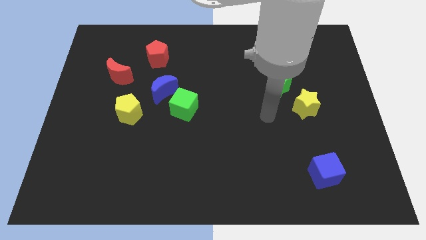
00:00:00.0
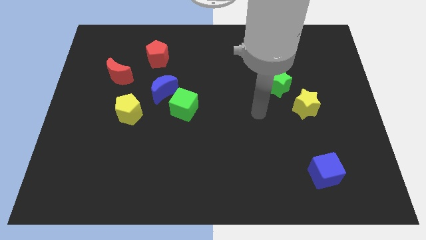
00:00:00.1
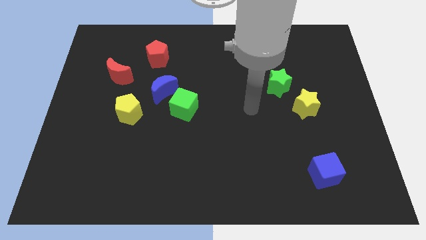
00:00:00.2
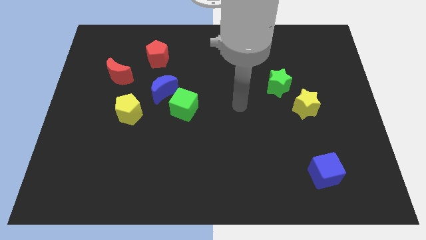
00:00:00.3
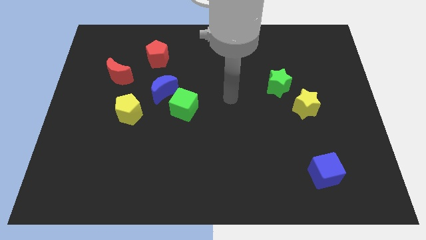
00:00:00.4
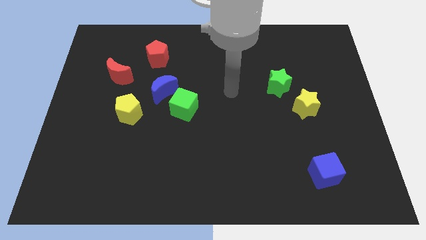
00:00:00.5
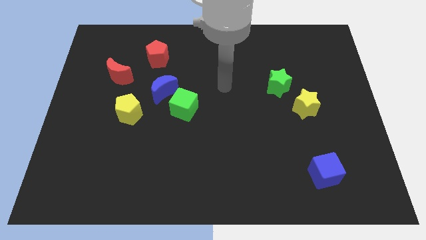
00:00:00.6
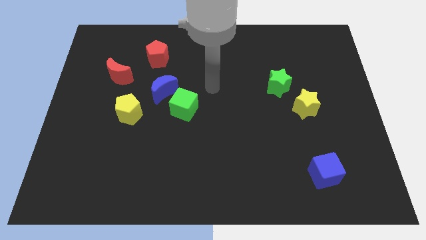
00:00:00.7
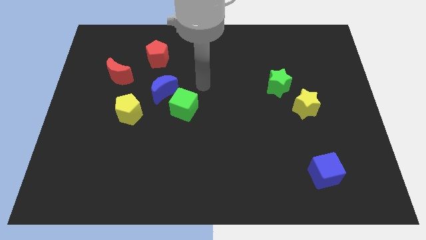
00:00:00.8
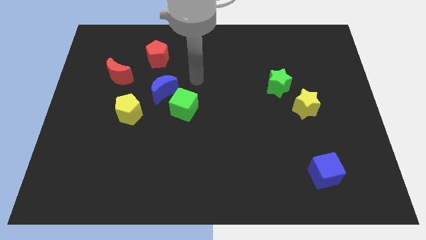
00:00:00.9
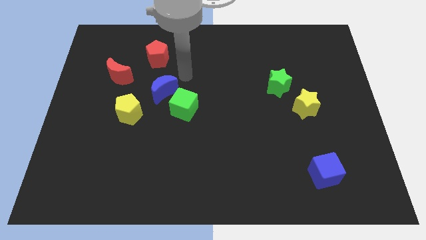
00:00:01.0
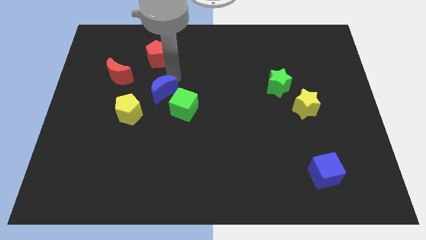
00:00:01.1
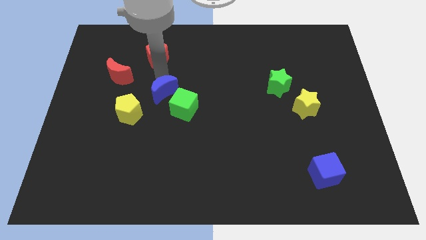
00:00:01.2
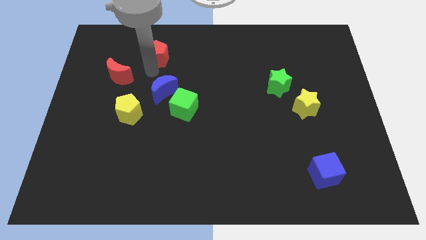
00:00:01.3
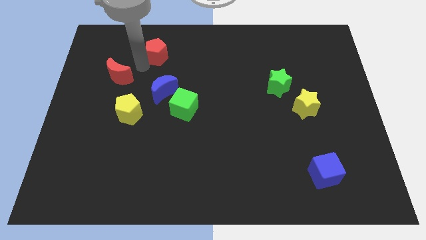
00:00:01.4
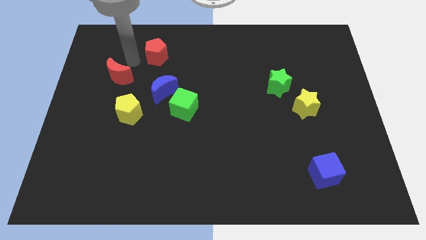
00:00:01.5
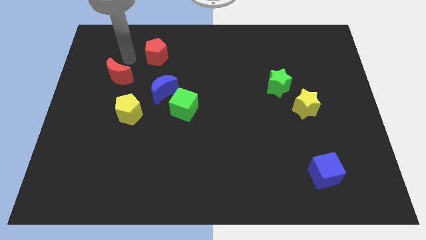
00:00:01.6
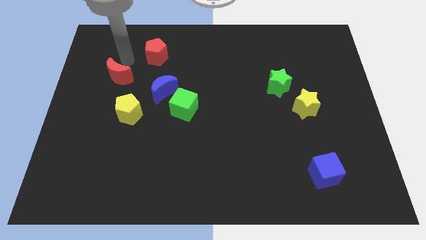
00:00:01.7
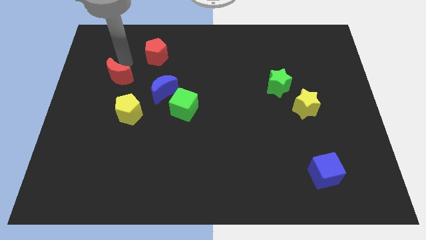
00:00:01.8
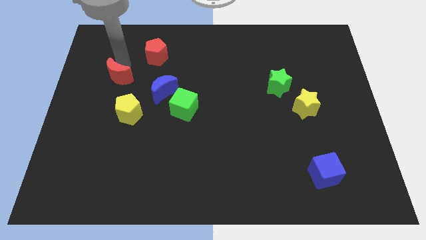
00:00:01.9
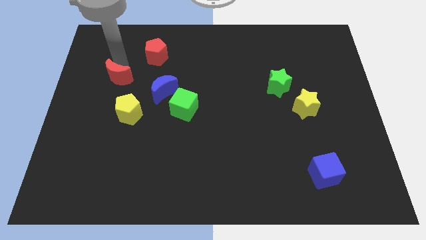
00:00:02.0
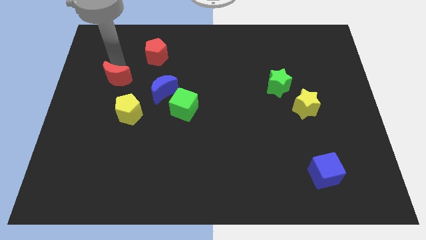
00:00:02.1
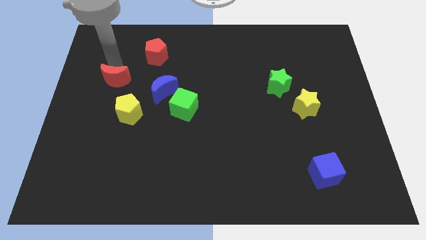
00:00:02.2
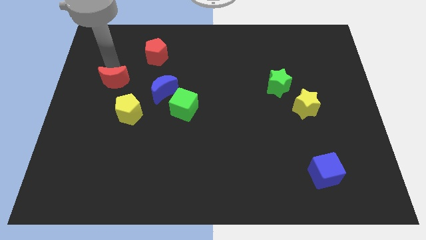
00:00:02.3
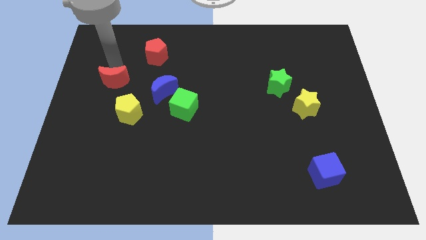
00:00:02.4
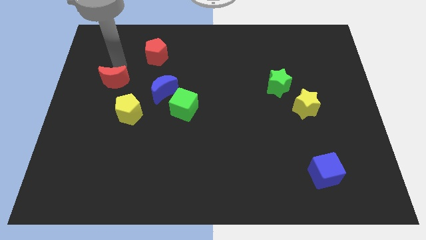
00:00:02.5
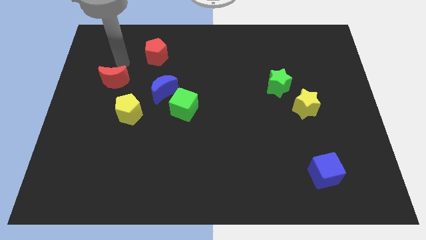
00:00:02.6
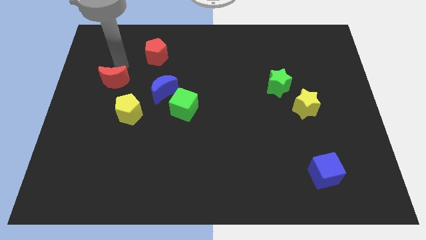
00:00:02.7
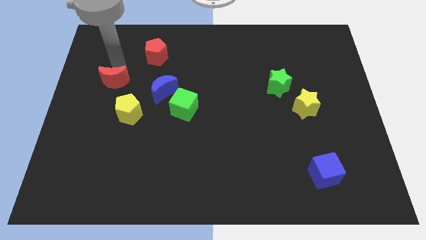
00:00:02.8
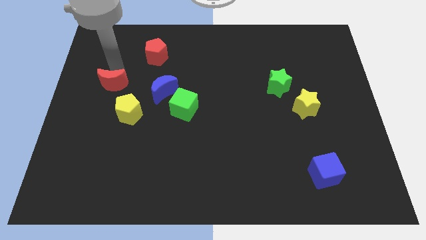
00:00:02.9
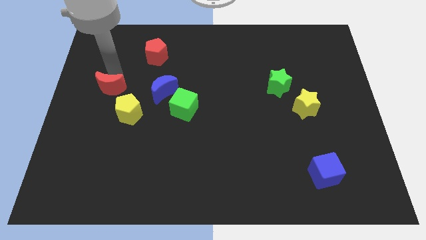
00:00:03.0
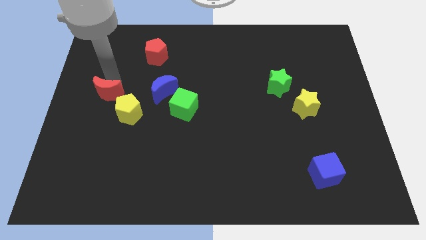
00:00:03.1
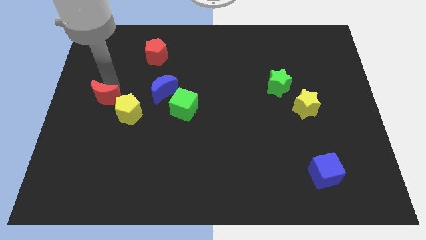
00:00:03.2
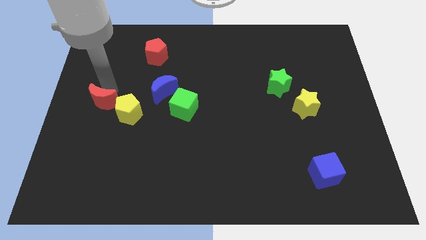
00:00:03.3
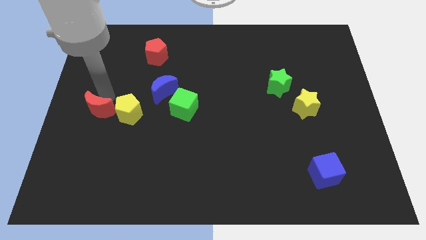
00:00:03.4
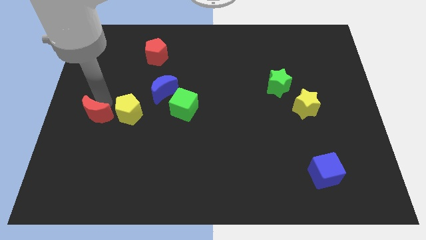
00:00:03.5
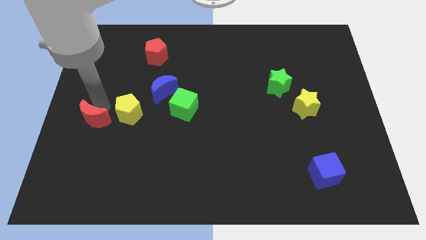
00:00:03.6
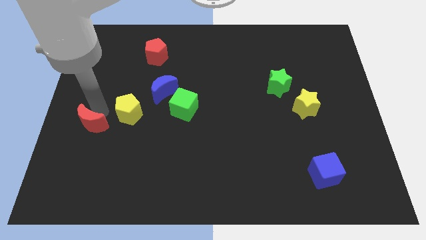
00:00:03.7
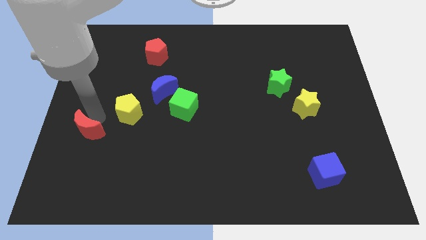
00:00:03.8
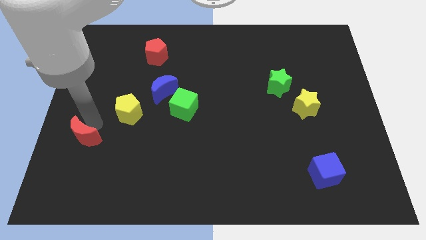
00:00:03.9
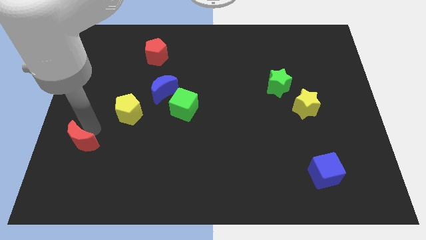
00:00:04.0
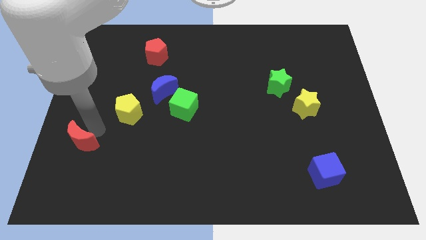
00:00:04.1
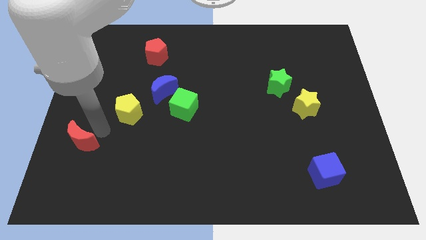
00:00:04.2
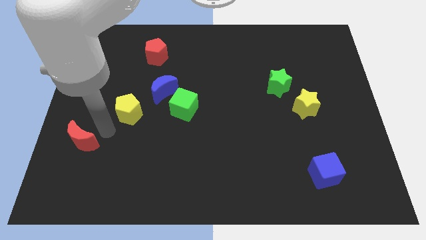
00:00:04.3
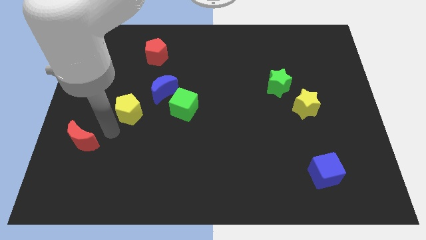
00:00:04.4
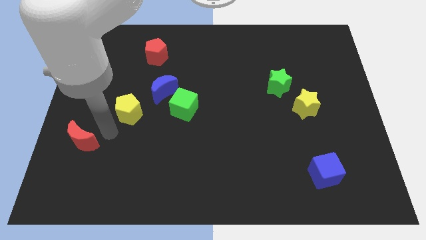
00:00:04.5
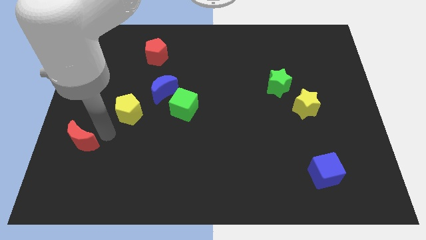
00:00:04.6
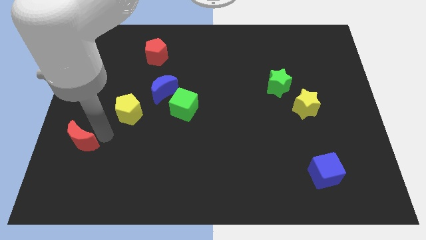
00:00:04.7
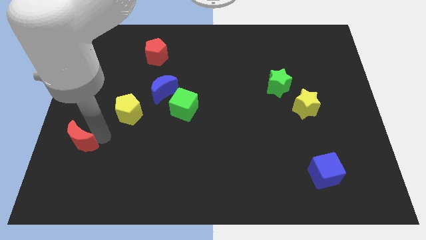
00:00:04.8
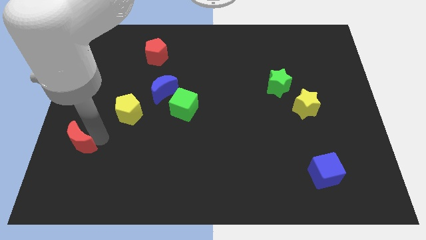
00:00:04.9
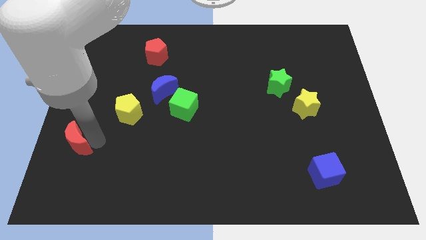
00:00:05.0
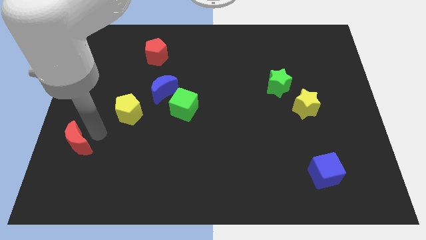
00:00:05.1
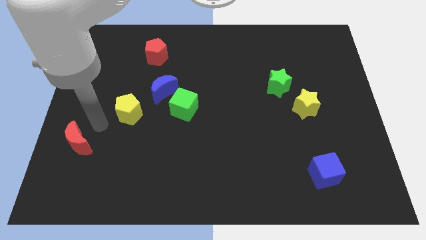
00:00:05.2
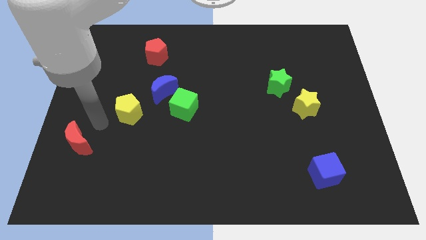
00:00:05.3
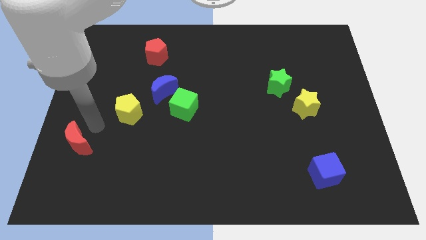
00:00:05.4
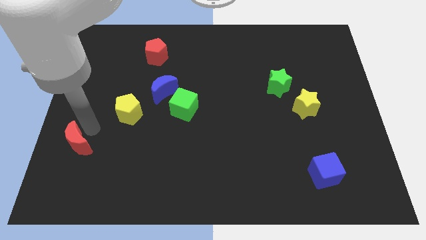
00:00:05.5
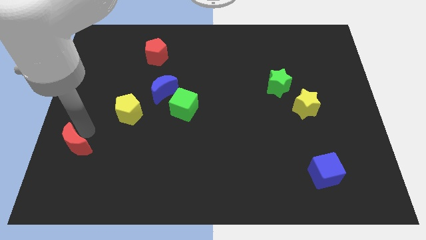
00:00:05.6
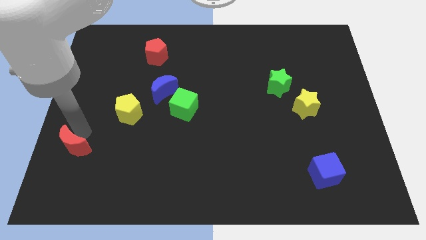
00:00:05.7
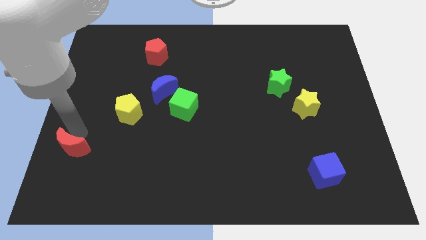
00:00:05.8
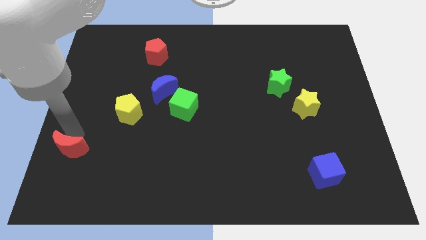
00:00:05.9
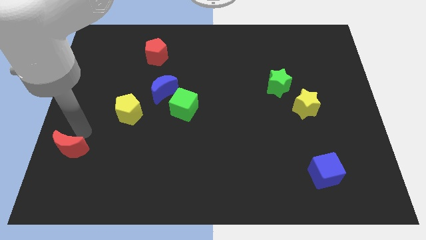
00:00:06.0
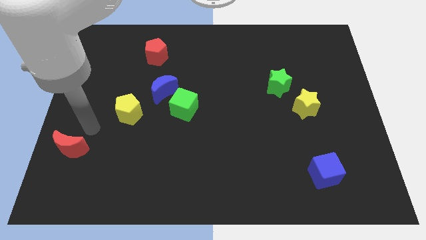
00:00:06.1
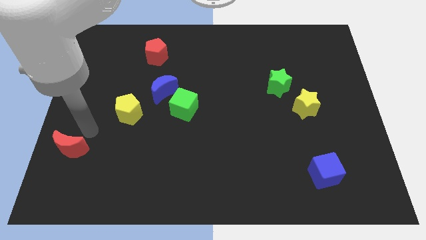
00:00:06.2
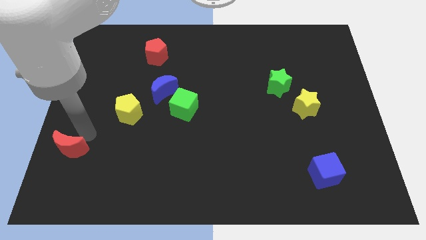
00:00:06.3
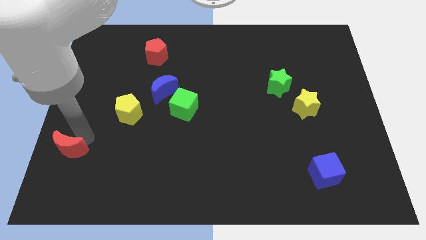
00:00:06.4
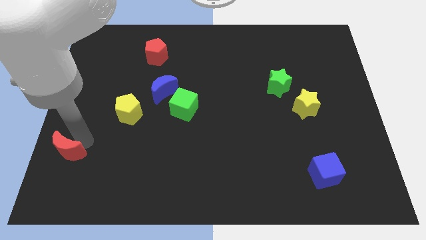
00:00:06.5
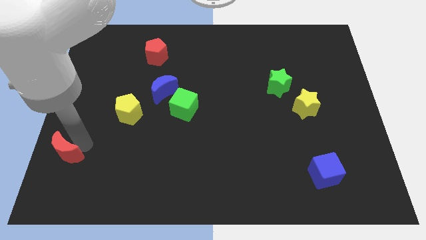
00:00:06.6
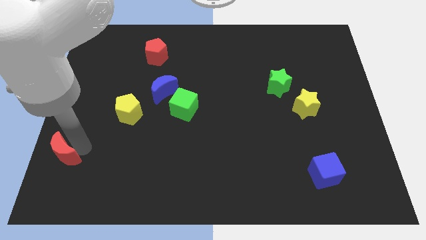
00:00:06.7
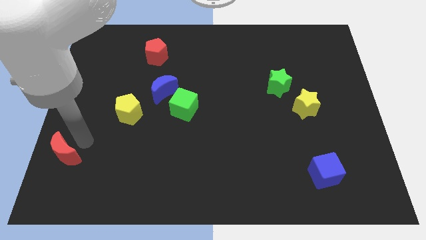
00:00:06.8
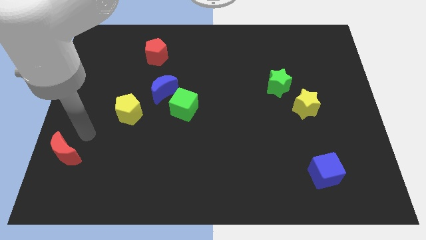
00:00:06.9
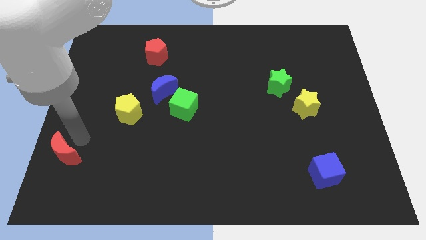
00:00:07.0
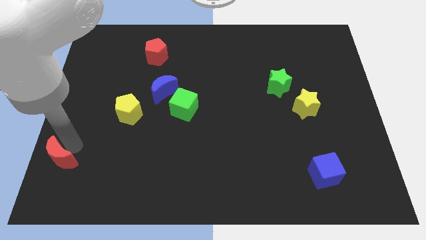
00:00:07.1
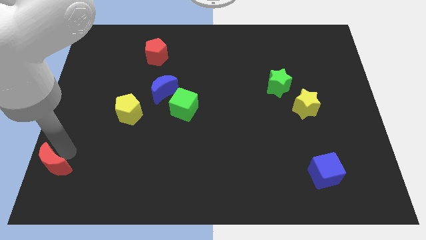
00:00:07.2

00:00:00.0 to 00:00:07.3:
put the red moon to the lower left corner
